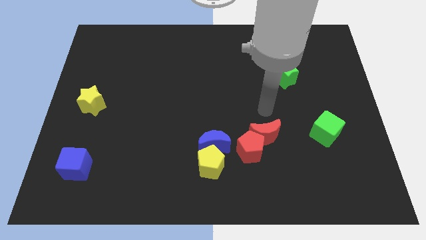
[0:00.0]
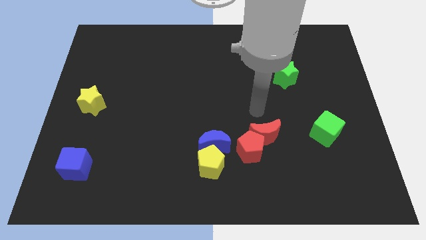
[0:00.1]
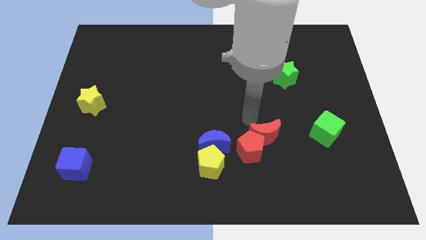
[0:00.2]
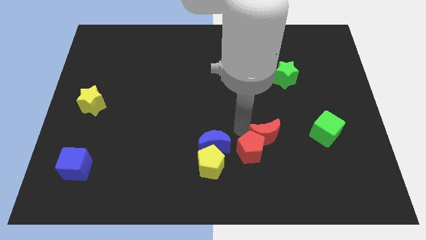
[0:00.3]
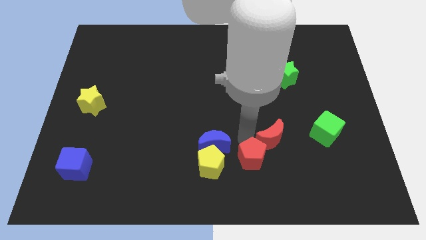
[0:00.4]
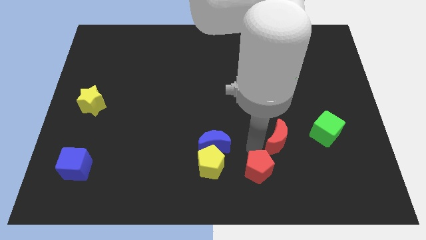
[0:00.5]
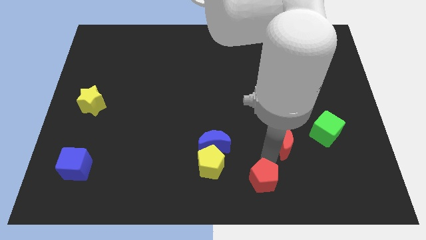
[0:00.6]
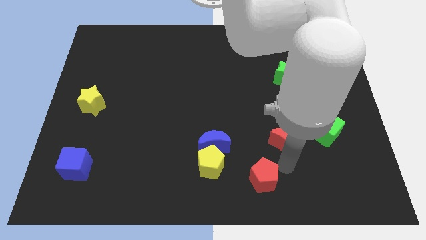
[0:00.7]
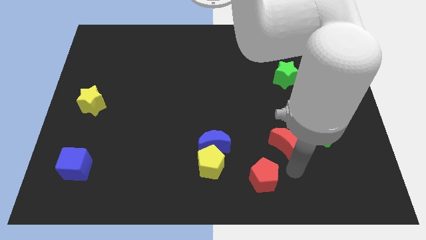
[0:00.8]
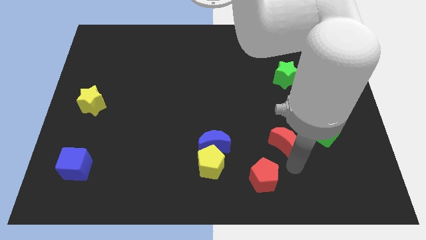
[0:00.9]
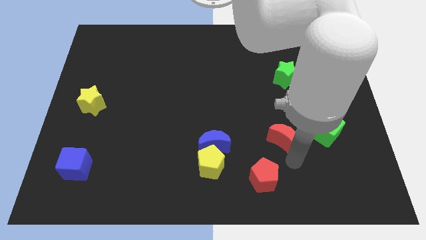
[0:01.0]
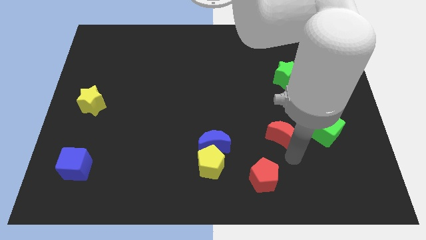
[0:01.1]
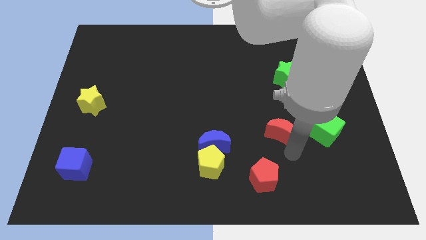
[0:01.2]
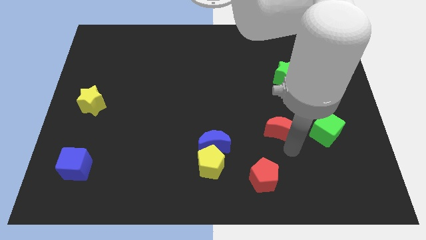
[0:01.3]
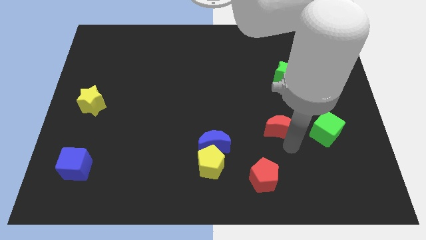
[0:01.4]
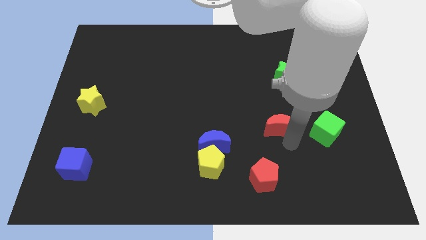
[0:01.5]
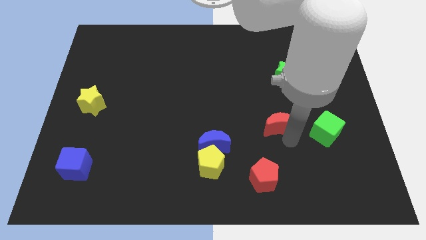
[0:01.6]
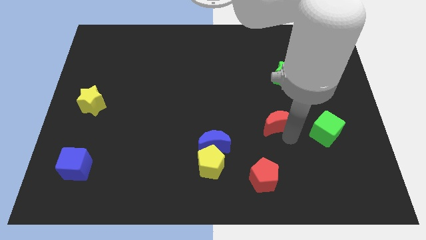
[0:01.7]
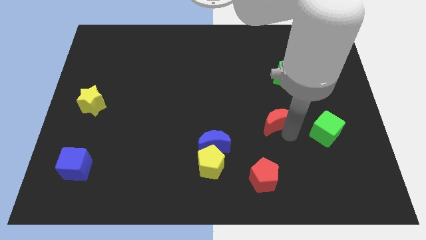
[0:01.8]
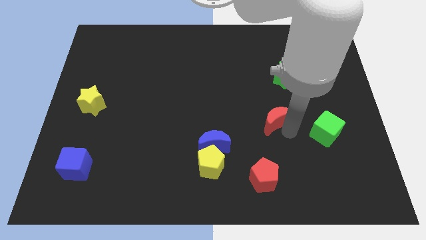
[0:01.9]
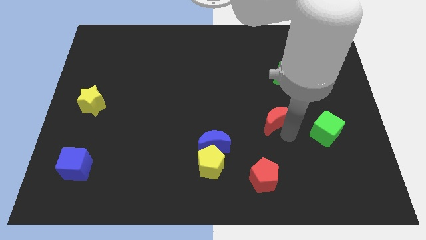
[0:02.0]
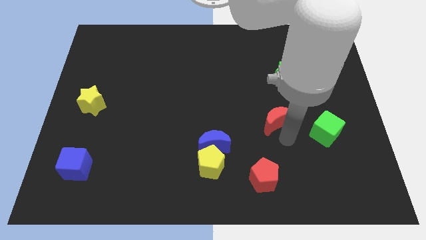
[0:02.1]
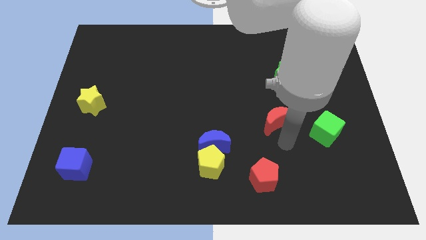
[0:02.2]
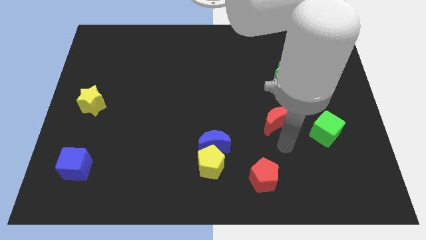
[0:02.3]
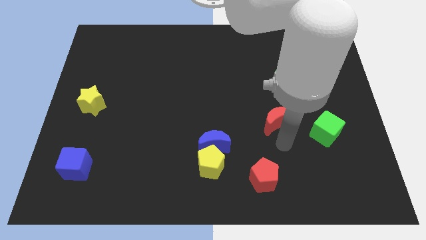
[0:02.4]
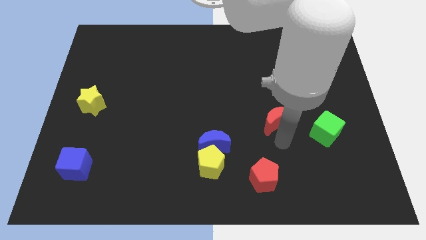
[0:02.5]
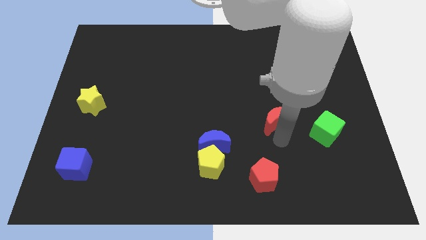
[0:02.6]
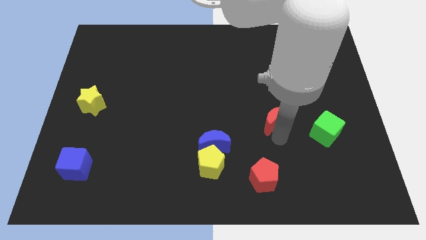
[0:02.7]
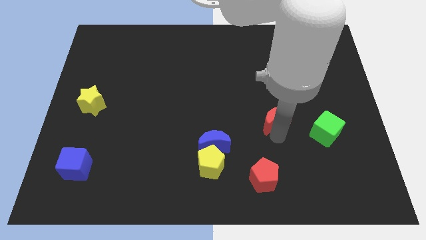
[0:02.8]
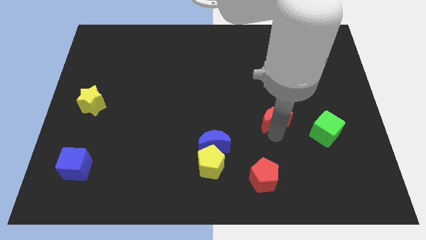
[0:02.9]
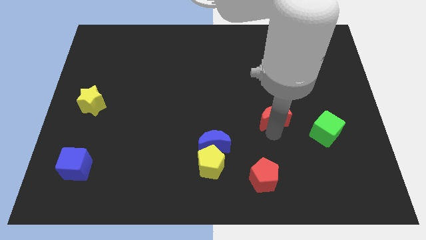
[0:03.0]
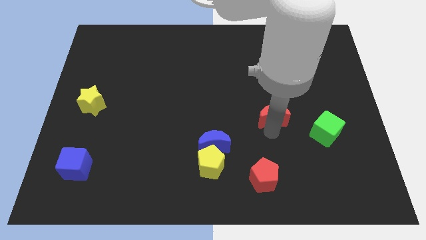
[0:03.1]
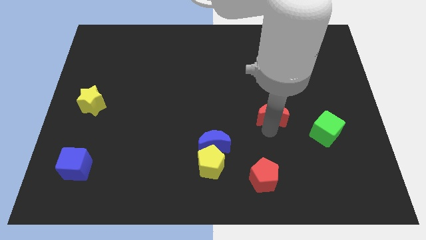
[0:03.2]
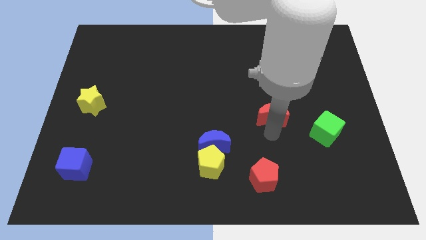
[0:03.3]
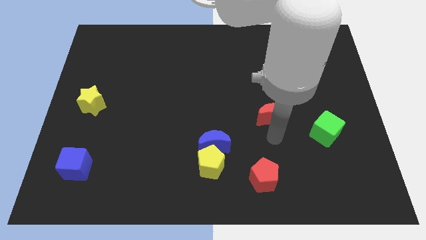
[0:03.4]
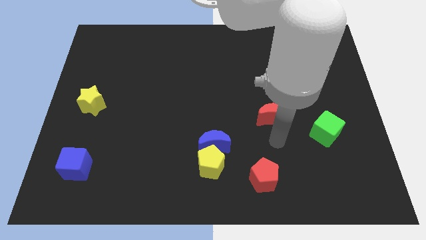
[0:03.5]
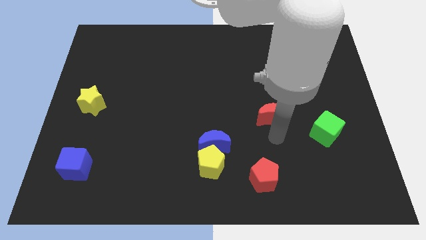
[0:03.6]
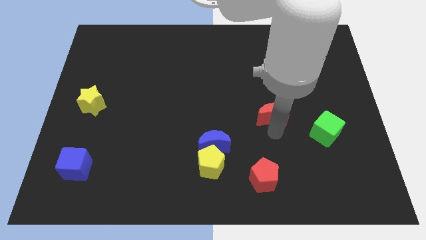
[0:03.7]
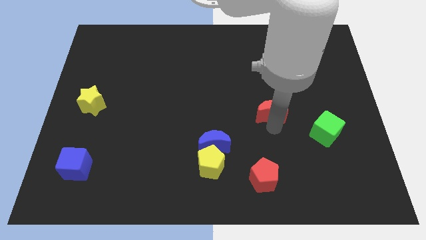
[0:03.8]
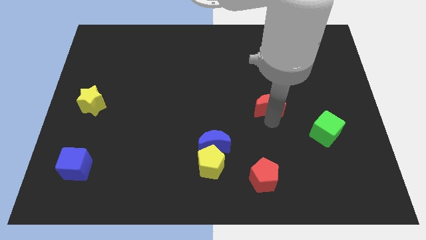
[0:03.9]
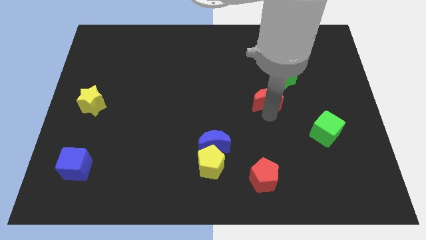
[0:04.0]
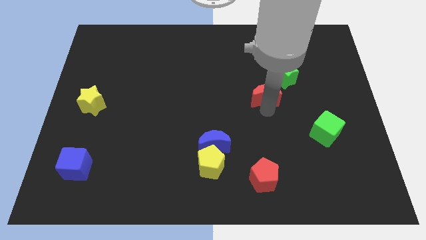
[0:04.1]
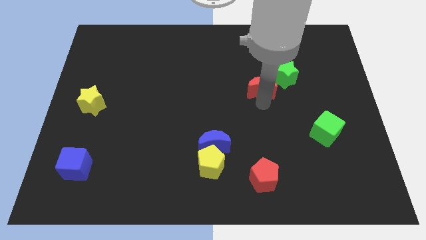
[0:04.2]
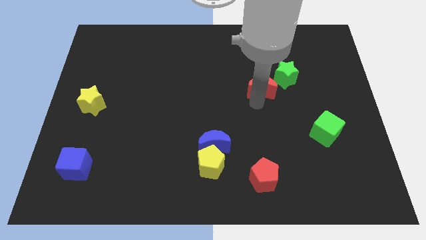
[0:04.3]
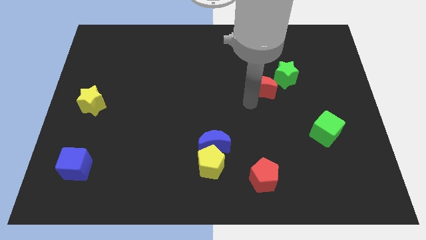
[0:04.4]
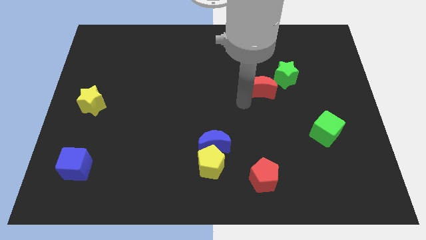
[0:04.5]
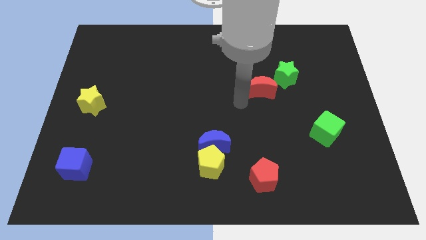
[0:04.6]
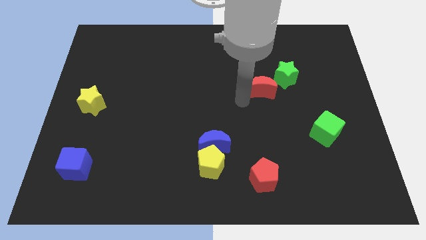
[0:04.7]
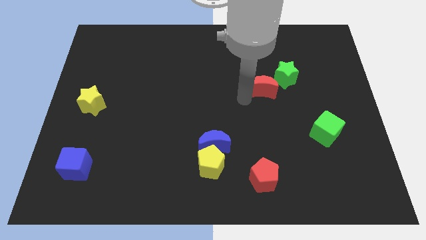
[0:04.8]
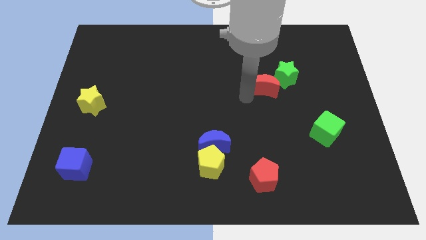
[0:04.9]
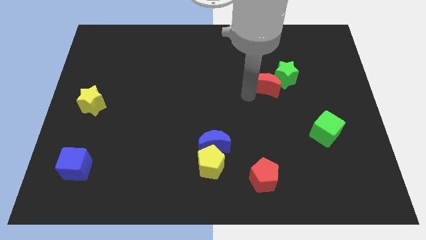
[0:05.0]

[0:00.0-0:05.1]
put the red moon to the green star
